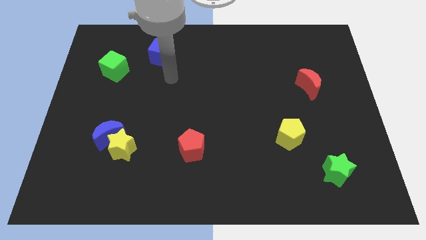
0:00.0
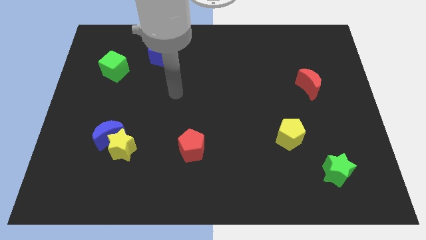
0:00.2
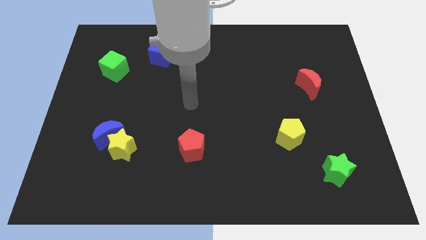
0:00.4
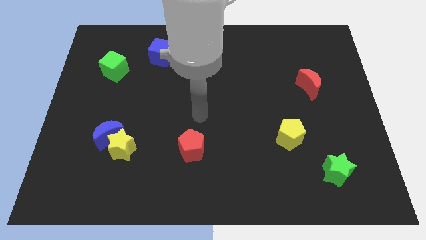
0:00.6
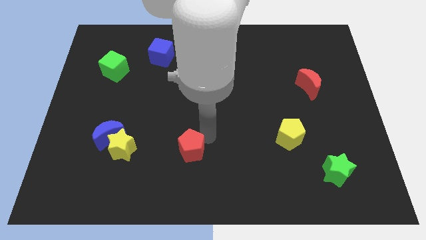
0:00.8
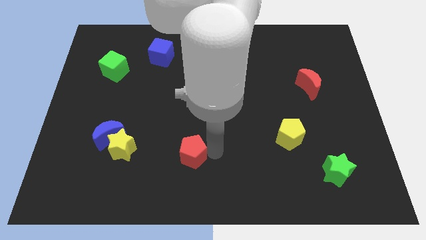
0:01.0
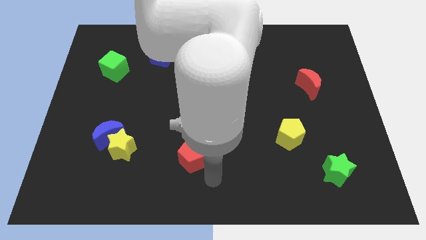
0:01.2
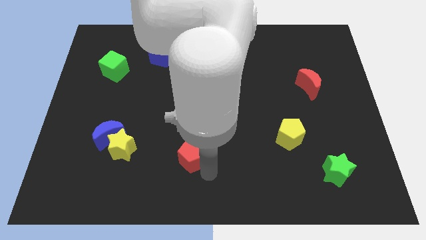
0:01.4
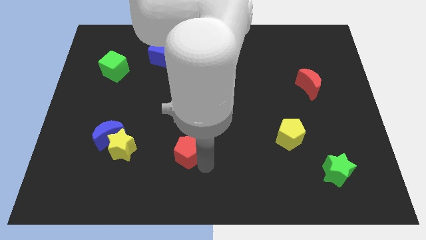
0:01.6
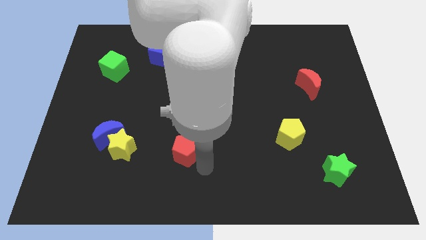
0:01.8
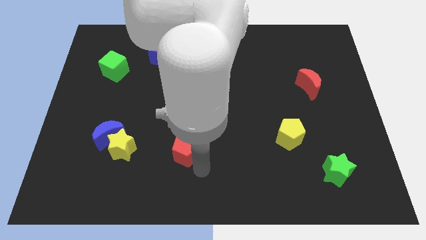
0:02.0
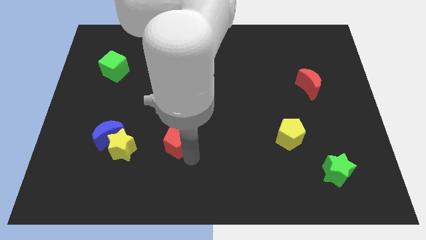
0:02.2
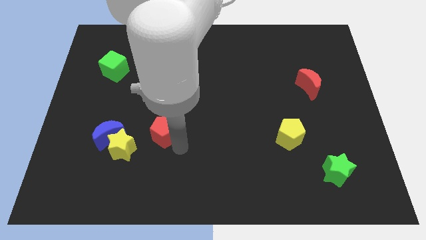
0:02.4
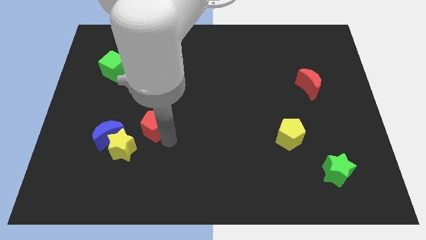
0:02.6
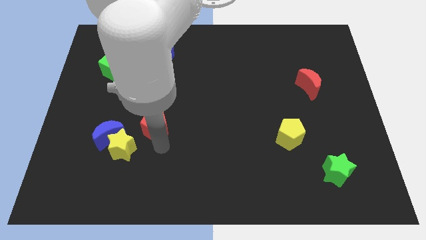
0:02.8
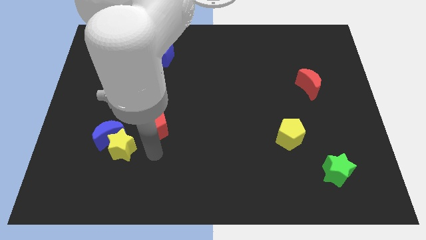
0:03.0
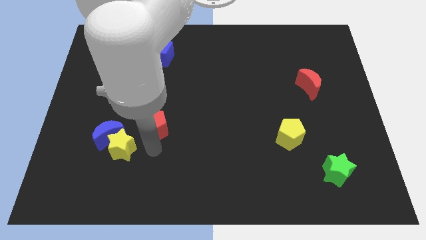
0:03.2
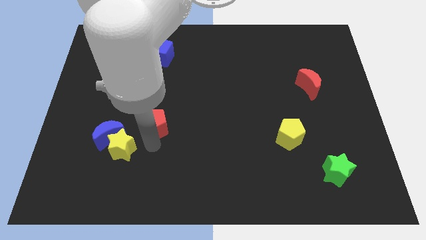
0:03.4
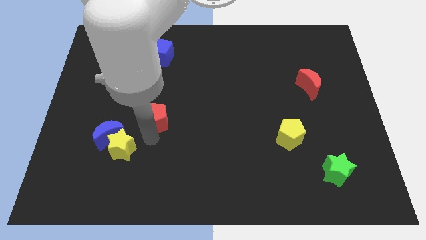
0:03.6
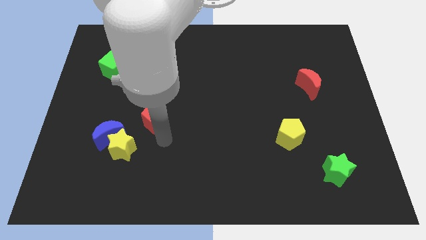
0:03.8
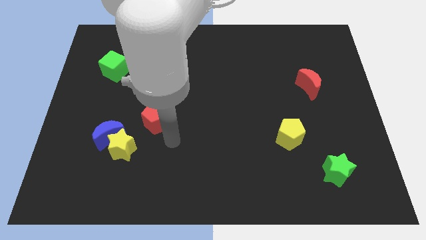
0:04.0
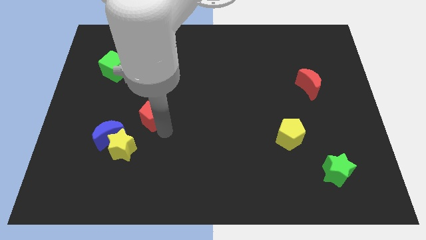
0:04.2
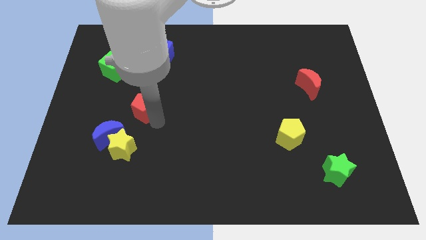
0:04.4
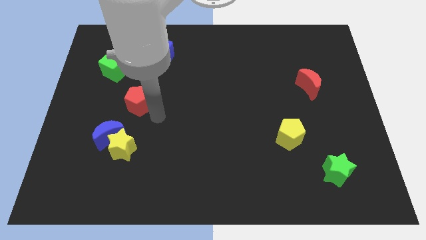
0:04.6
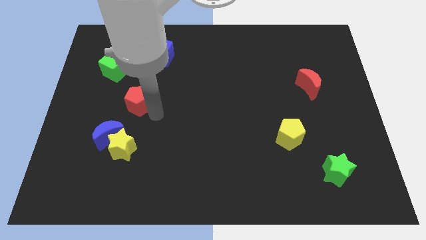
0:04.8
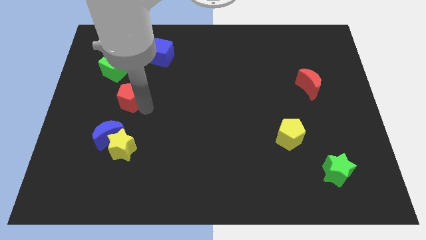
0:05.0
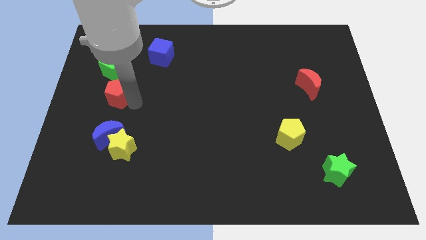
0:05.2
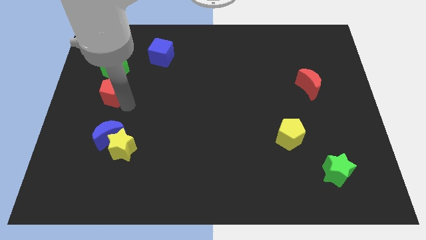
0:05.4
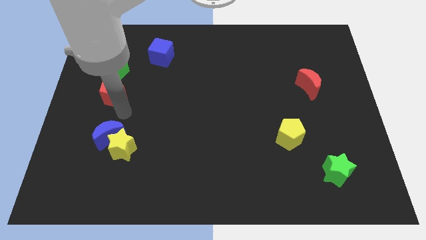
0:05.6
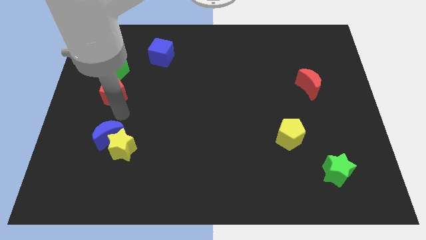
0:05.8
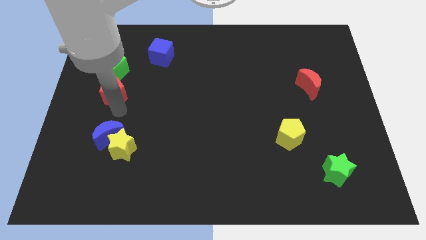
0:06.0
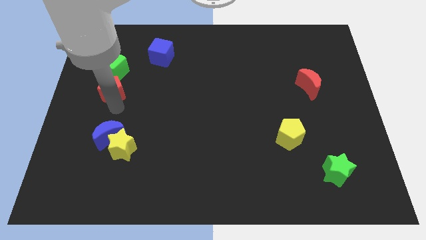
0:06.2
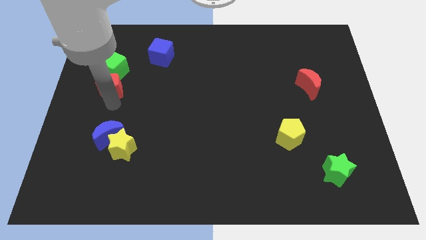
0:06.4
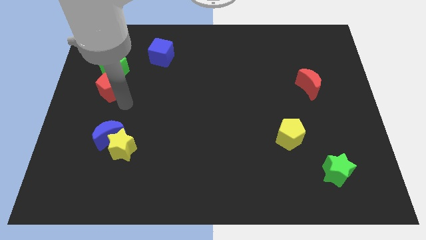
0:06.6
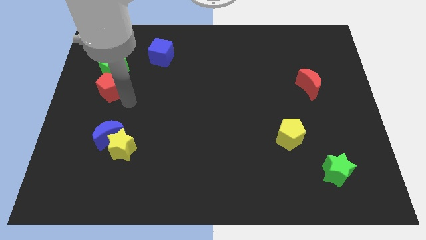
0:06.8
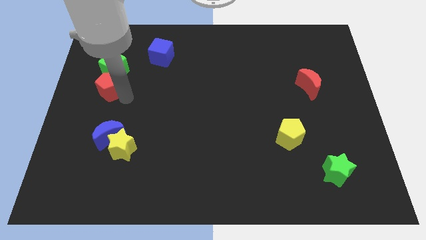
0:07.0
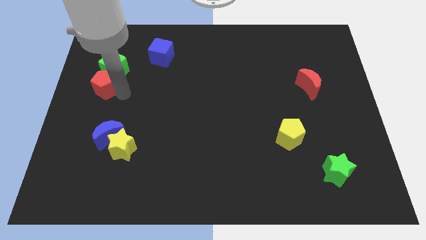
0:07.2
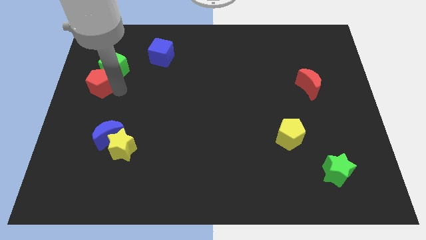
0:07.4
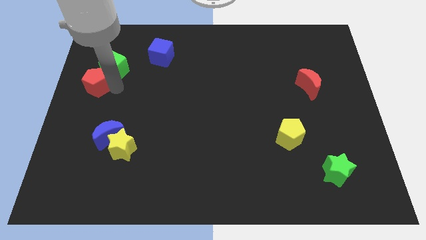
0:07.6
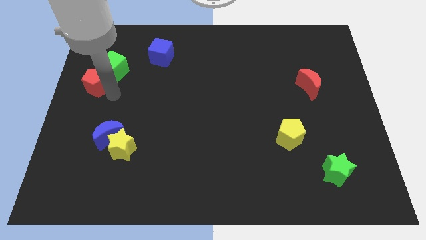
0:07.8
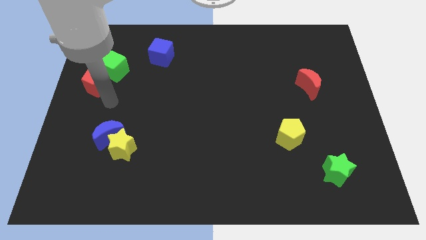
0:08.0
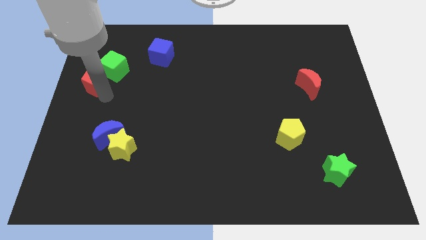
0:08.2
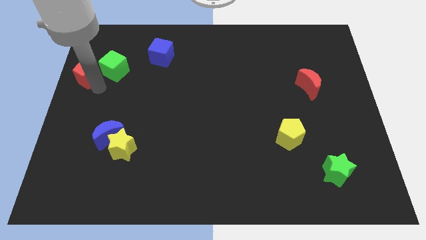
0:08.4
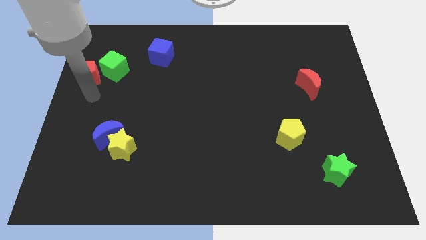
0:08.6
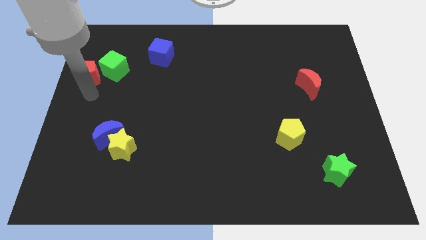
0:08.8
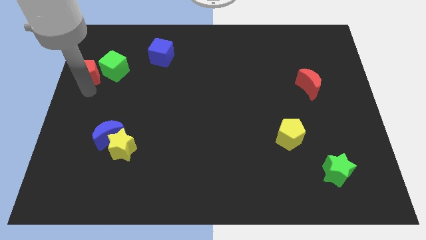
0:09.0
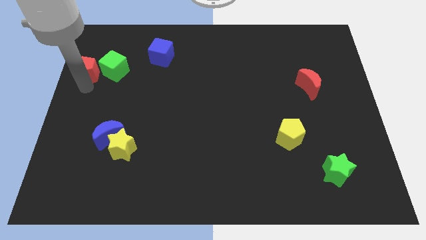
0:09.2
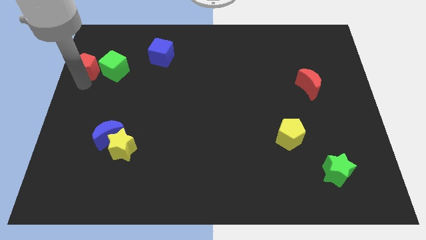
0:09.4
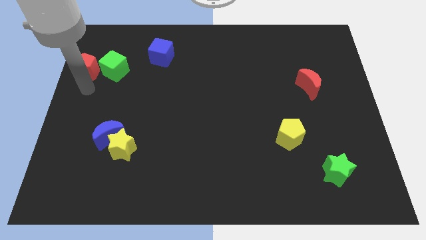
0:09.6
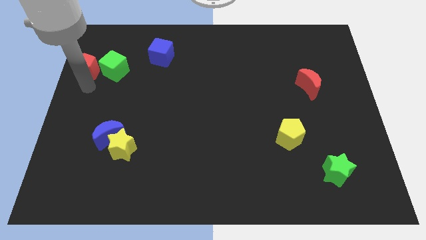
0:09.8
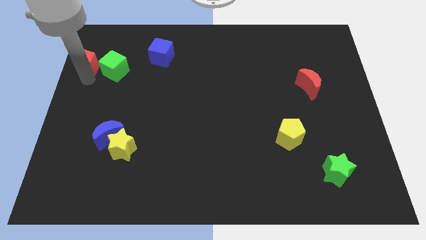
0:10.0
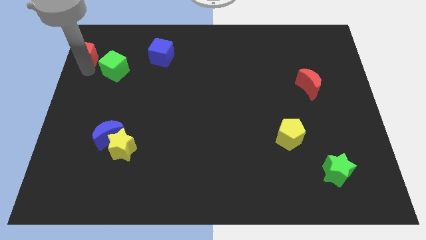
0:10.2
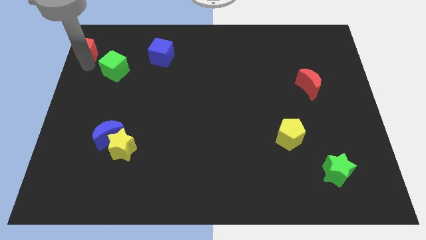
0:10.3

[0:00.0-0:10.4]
put the red pentagon to the top left of the board
